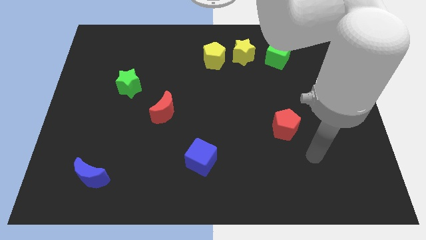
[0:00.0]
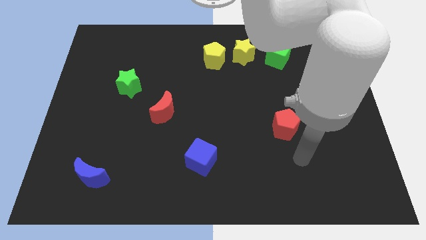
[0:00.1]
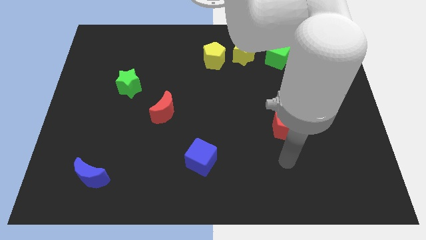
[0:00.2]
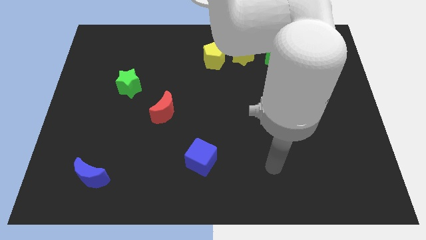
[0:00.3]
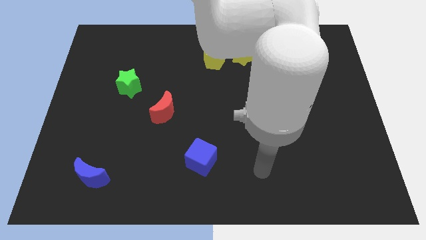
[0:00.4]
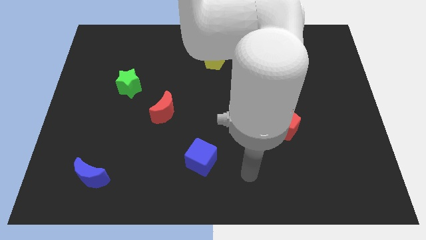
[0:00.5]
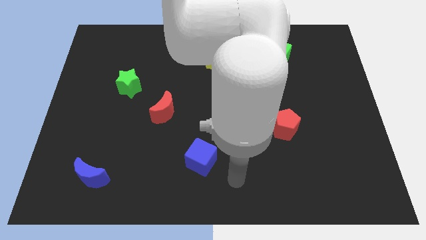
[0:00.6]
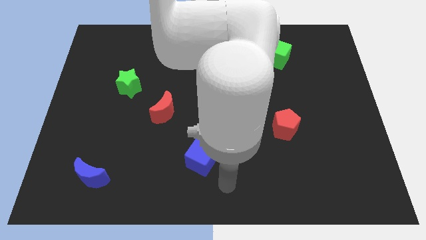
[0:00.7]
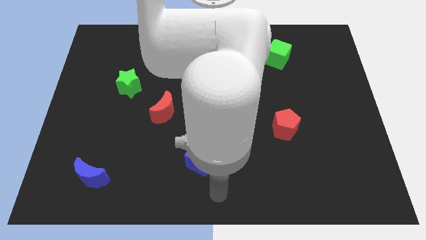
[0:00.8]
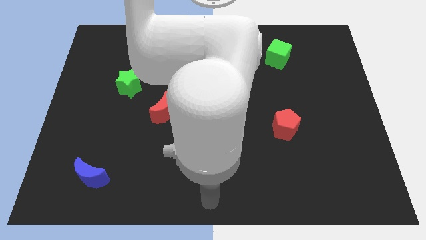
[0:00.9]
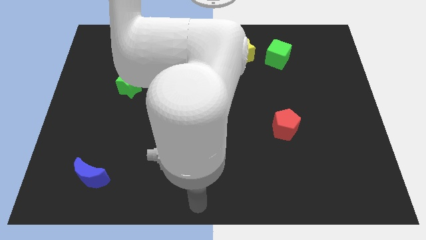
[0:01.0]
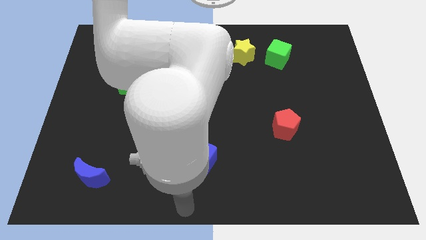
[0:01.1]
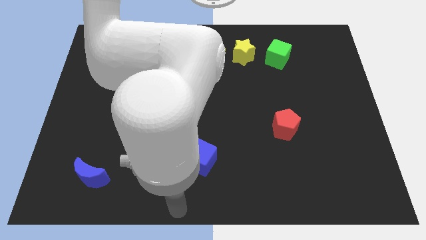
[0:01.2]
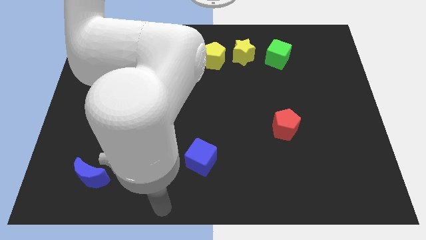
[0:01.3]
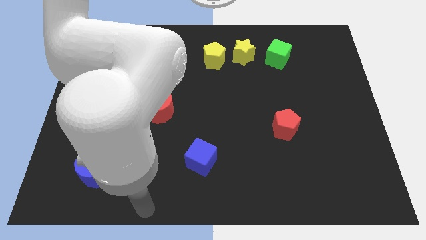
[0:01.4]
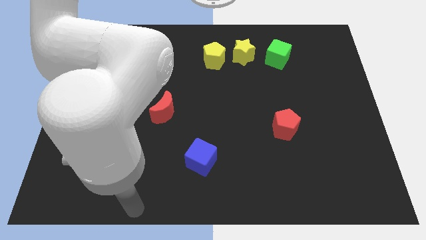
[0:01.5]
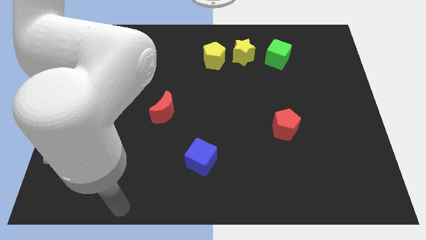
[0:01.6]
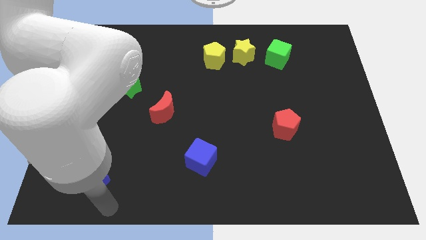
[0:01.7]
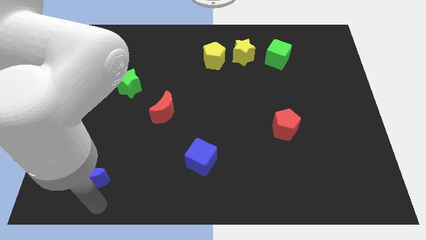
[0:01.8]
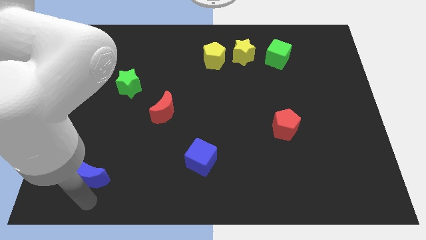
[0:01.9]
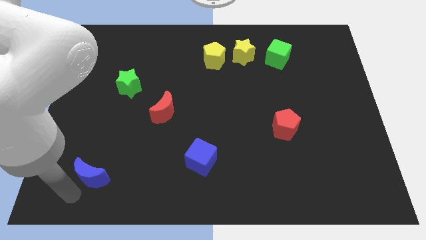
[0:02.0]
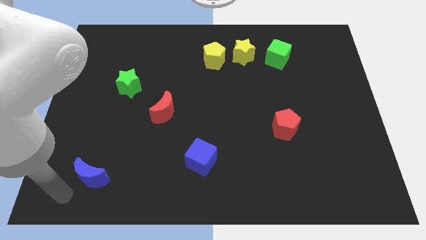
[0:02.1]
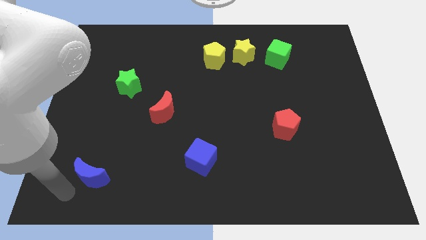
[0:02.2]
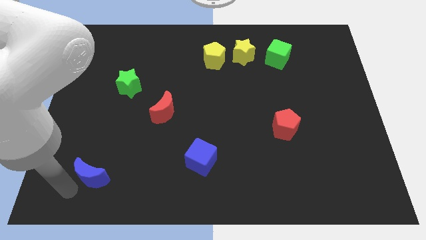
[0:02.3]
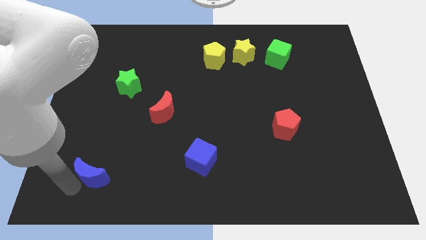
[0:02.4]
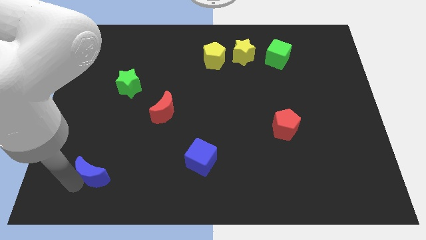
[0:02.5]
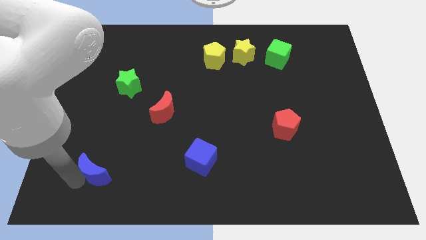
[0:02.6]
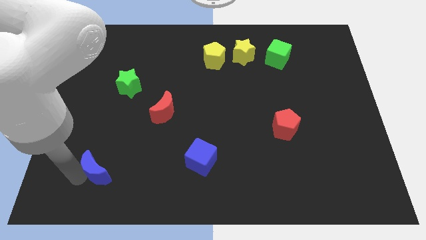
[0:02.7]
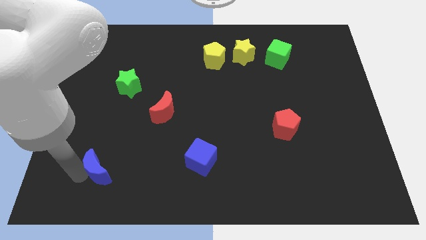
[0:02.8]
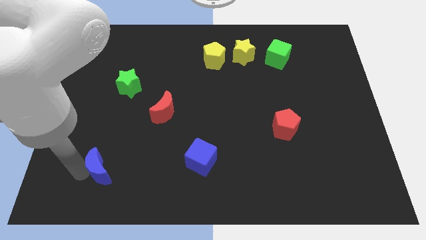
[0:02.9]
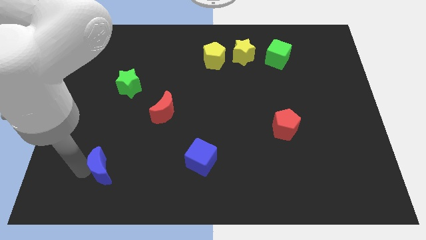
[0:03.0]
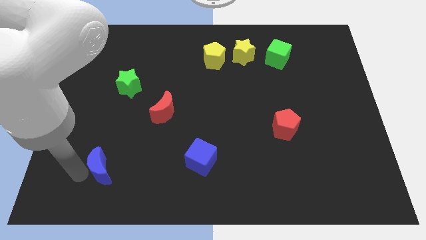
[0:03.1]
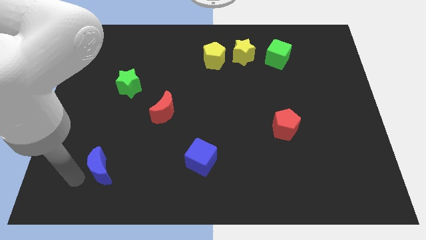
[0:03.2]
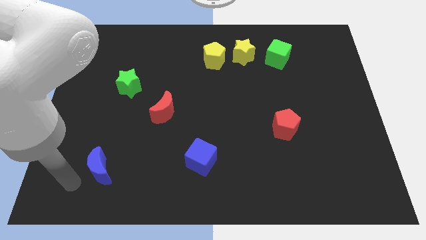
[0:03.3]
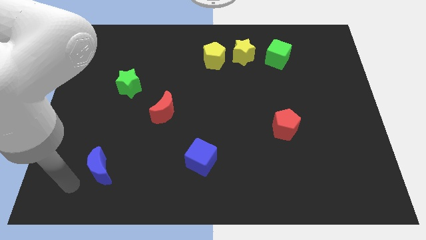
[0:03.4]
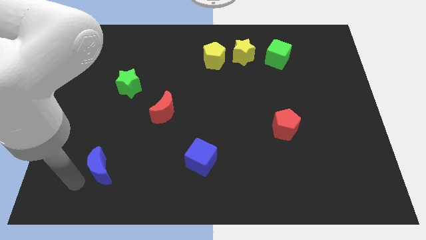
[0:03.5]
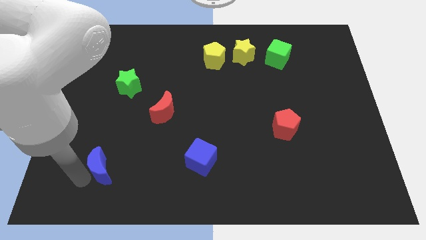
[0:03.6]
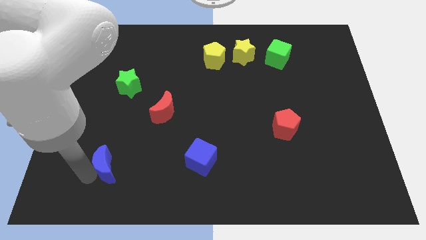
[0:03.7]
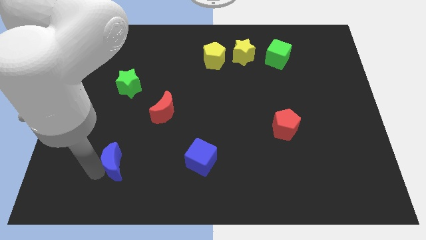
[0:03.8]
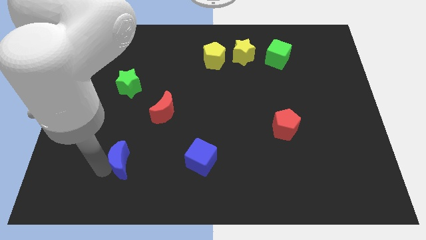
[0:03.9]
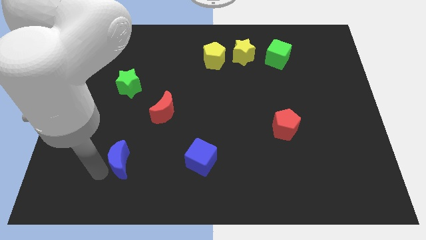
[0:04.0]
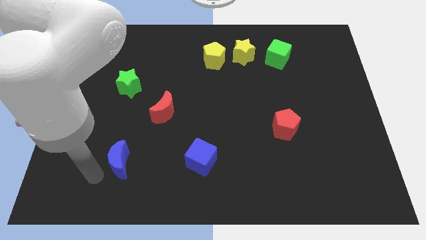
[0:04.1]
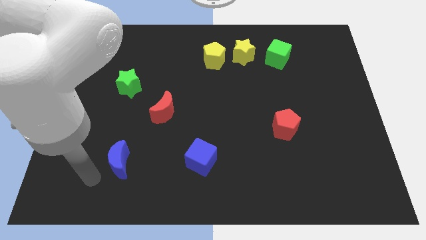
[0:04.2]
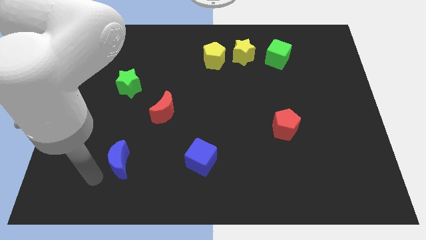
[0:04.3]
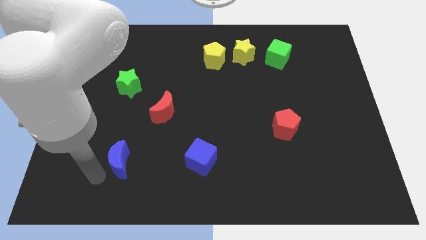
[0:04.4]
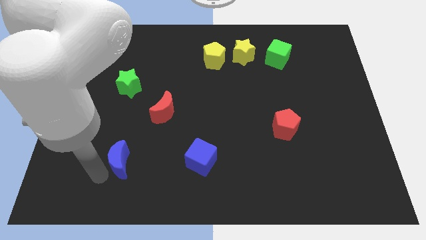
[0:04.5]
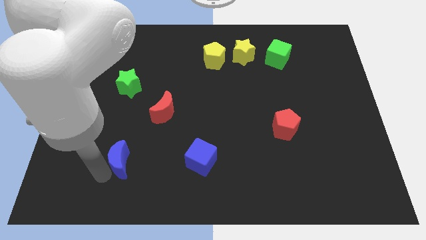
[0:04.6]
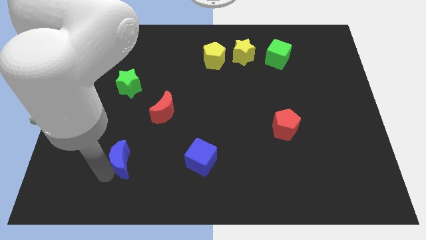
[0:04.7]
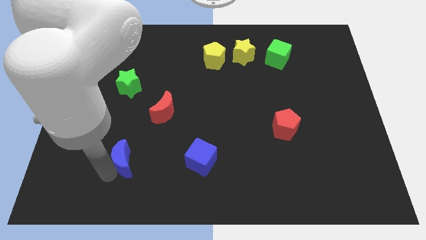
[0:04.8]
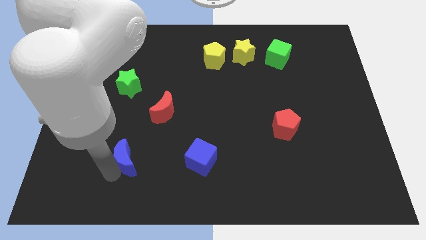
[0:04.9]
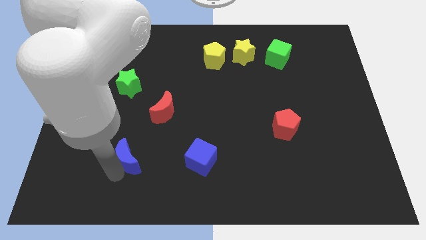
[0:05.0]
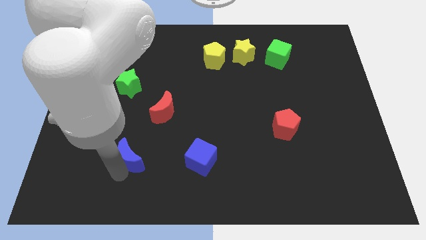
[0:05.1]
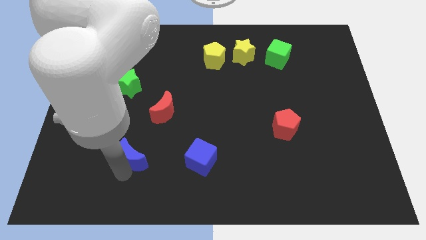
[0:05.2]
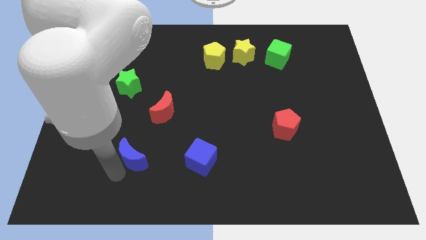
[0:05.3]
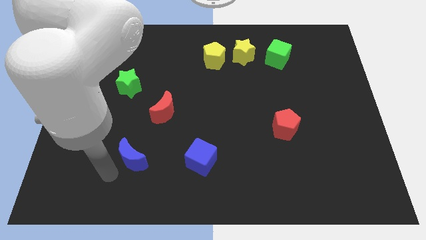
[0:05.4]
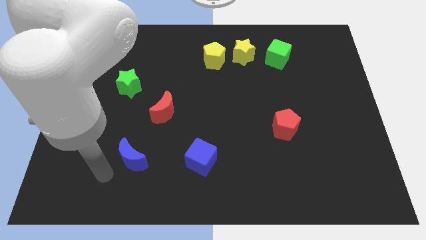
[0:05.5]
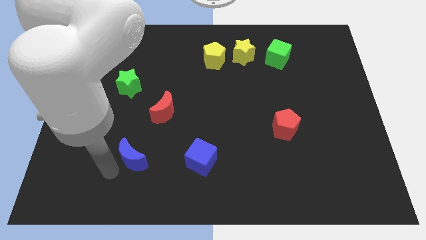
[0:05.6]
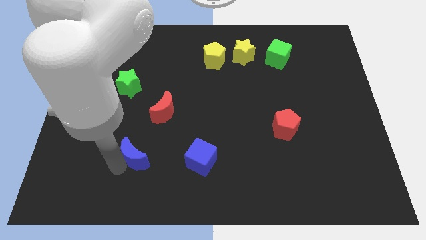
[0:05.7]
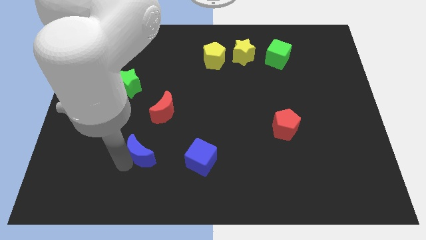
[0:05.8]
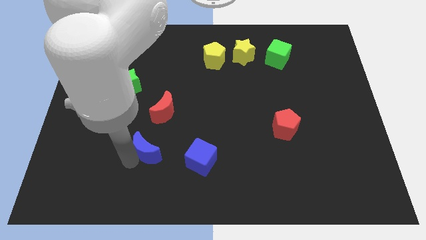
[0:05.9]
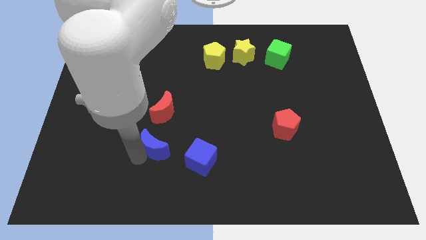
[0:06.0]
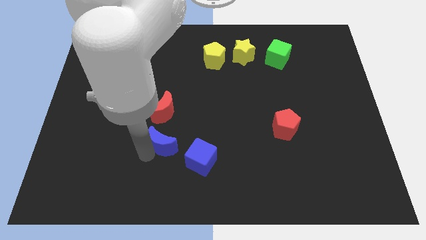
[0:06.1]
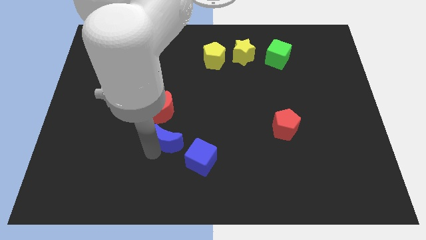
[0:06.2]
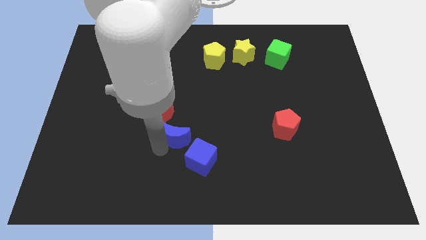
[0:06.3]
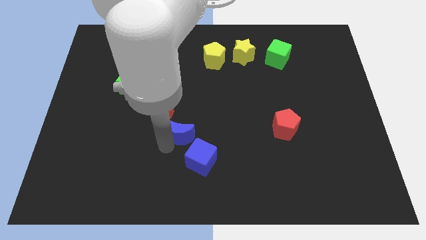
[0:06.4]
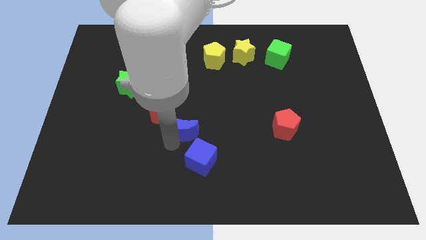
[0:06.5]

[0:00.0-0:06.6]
move the blue moon diagonally upwards and right

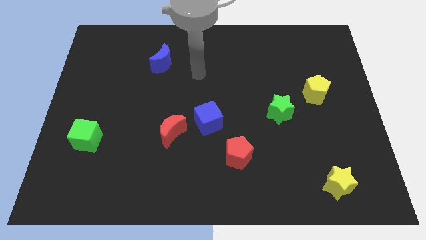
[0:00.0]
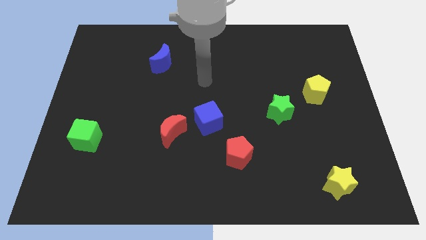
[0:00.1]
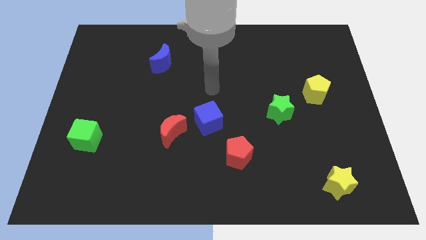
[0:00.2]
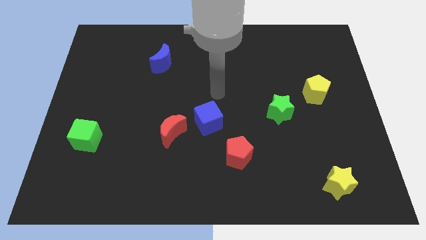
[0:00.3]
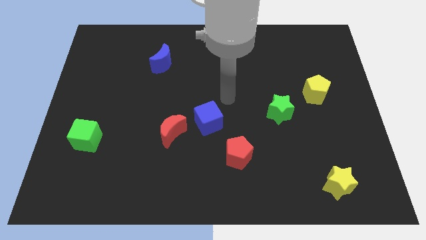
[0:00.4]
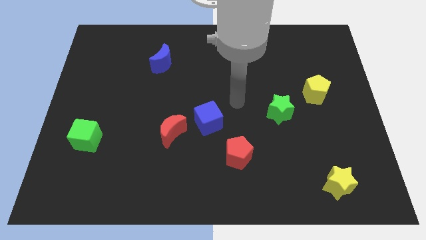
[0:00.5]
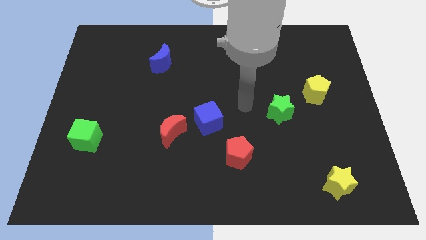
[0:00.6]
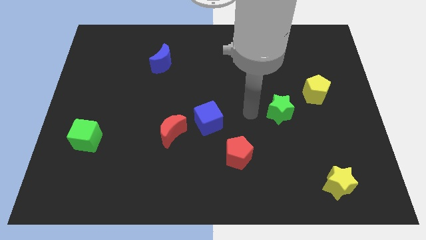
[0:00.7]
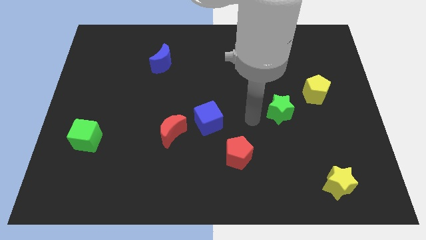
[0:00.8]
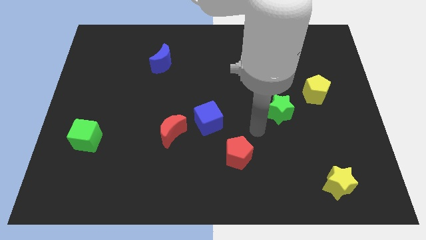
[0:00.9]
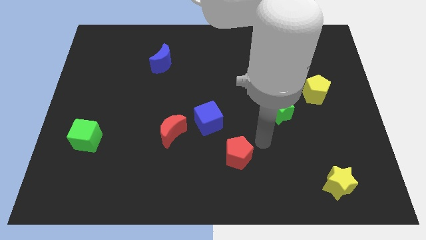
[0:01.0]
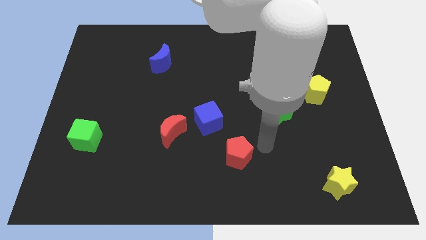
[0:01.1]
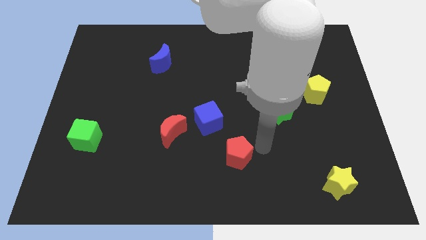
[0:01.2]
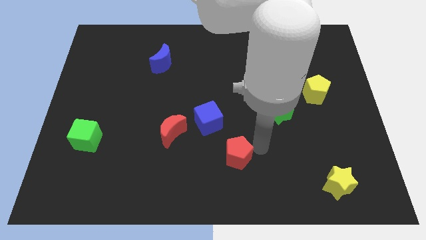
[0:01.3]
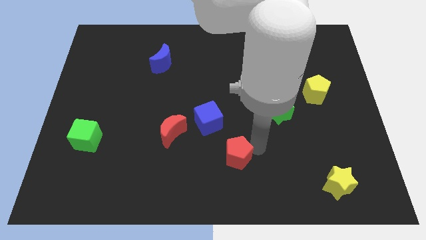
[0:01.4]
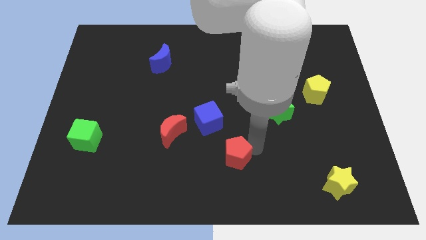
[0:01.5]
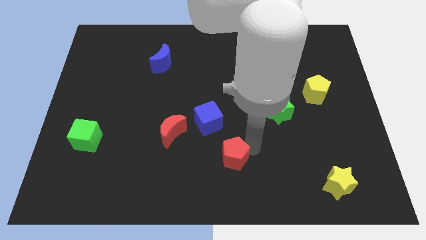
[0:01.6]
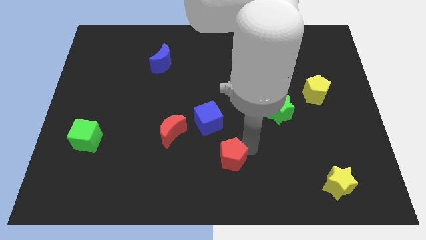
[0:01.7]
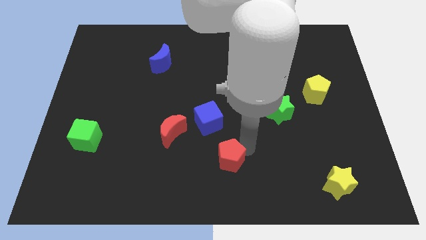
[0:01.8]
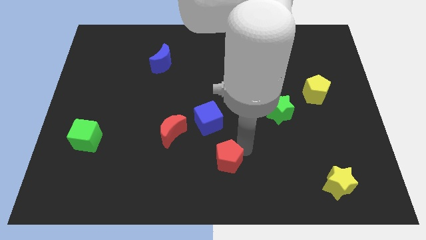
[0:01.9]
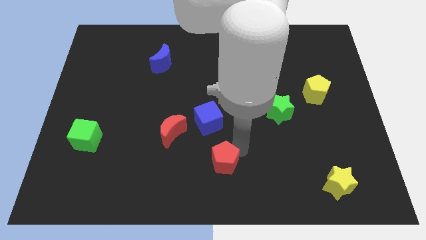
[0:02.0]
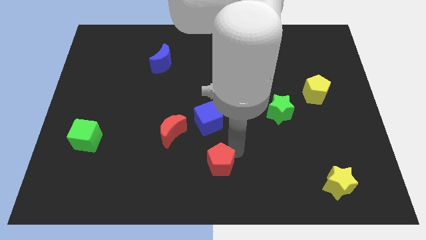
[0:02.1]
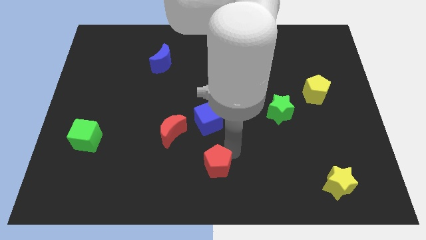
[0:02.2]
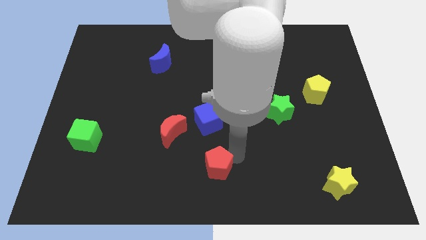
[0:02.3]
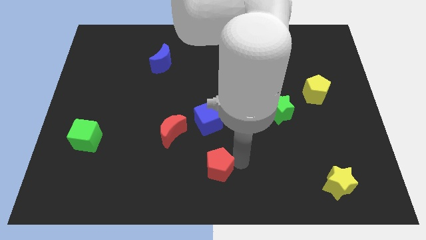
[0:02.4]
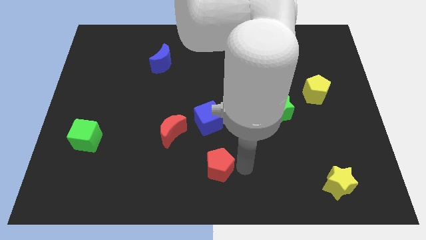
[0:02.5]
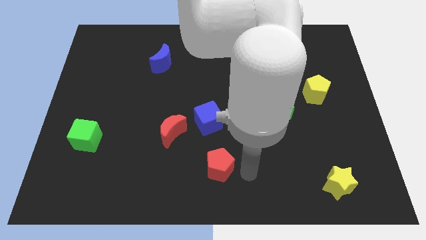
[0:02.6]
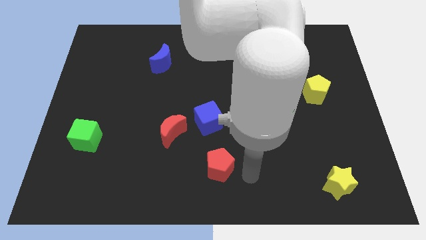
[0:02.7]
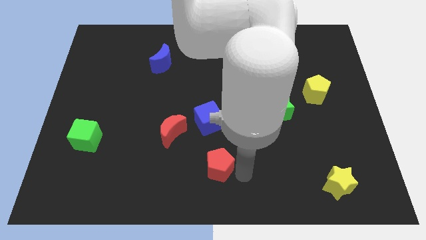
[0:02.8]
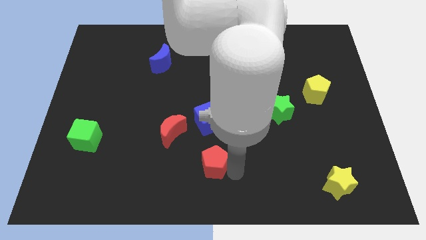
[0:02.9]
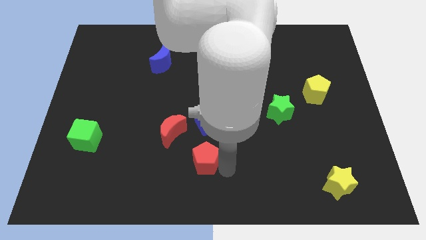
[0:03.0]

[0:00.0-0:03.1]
slide the red pentagon to the left a little
